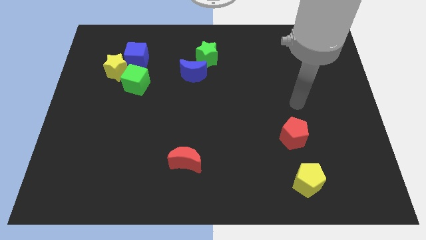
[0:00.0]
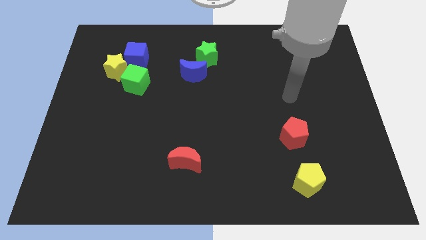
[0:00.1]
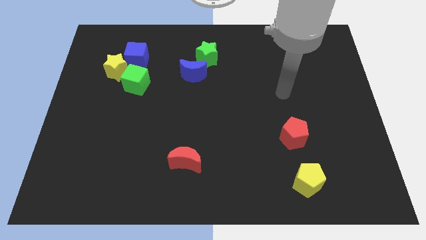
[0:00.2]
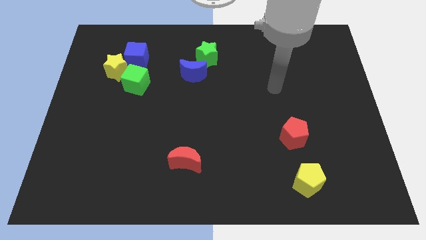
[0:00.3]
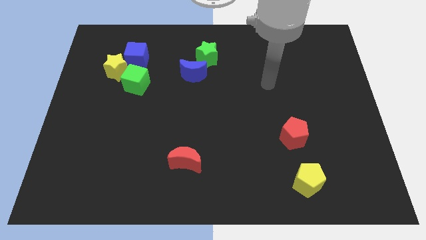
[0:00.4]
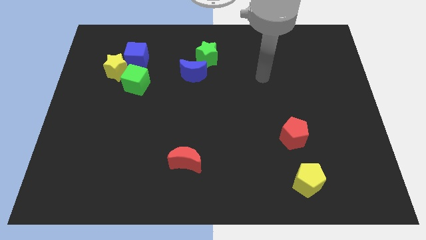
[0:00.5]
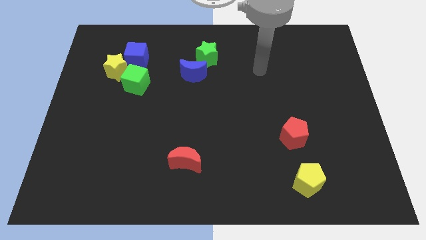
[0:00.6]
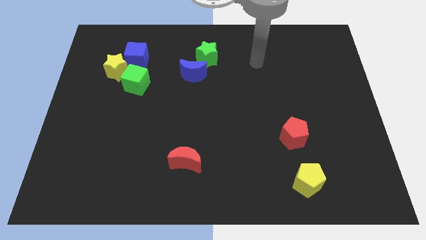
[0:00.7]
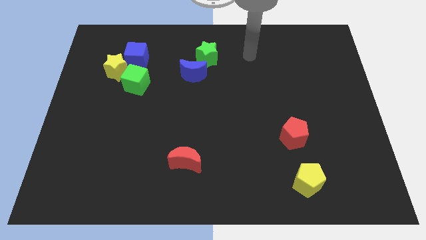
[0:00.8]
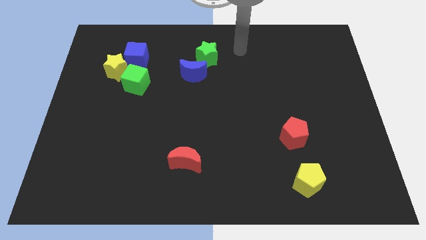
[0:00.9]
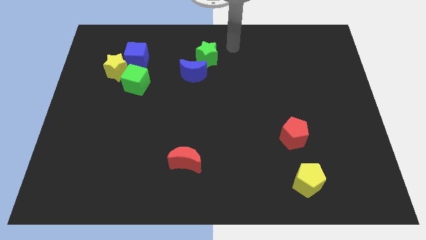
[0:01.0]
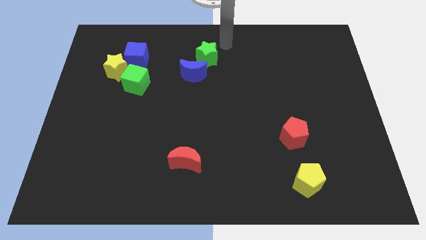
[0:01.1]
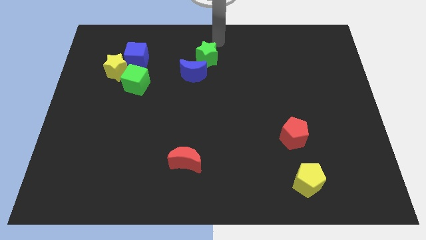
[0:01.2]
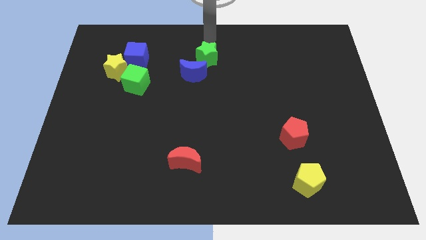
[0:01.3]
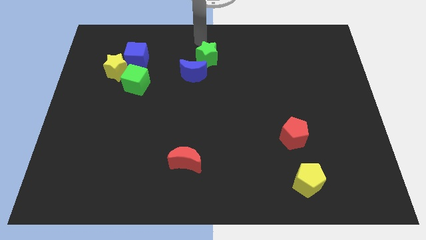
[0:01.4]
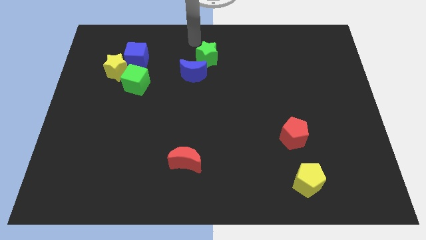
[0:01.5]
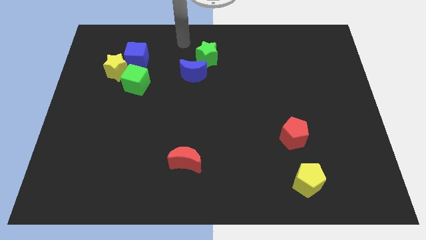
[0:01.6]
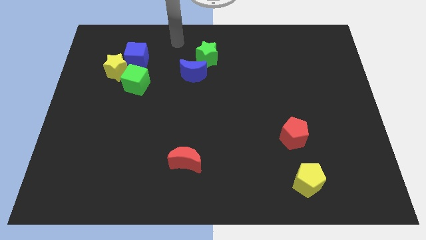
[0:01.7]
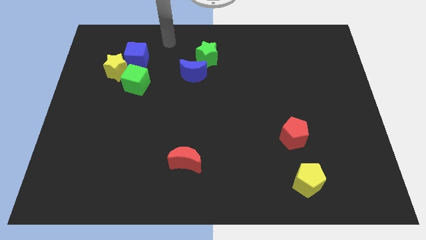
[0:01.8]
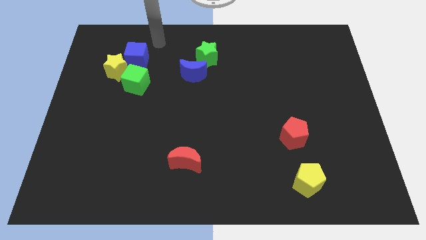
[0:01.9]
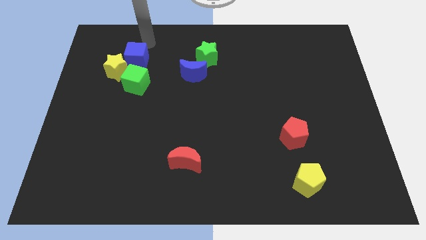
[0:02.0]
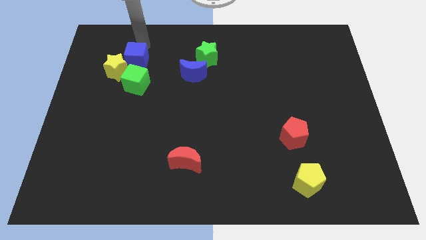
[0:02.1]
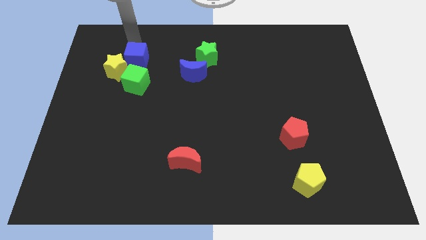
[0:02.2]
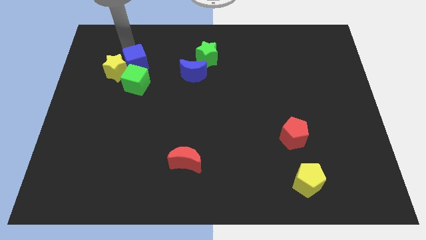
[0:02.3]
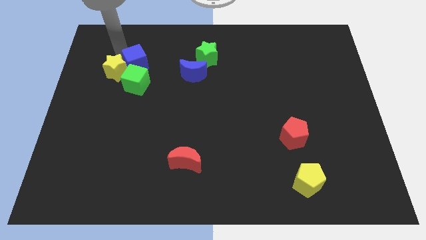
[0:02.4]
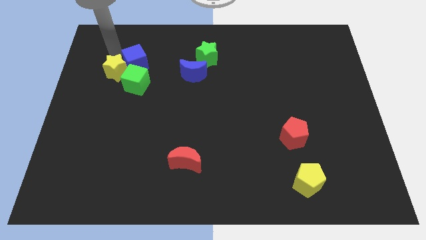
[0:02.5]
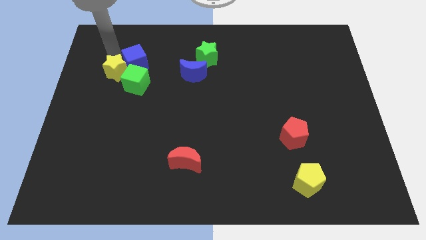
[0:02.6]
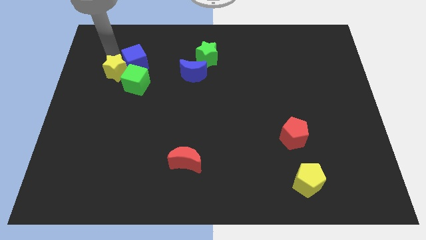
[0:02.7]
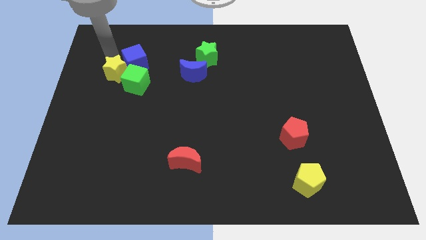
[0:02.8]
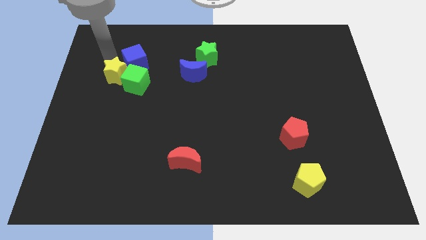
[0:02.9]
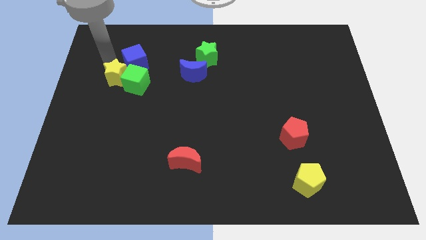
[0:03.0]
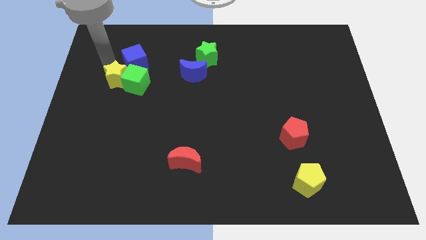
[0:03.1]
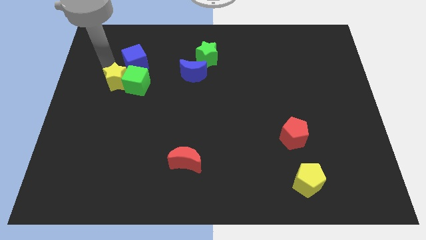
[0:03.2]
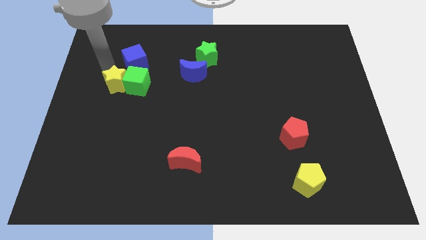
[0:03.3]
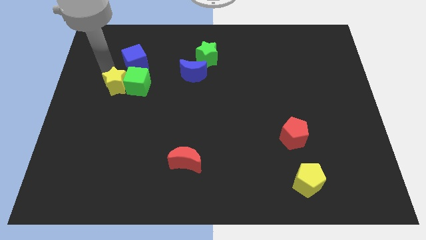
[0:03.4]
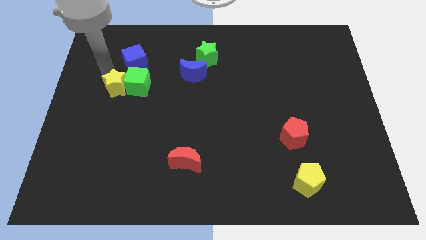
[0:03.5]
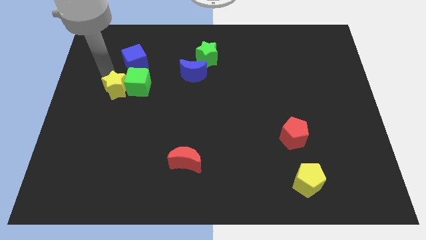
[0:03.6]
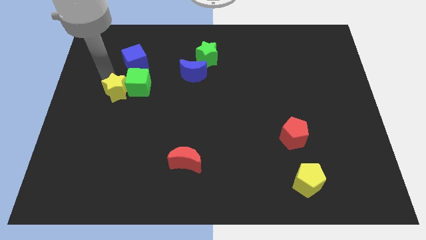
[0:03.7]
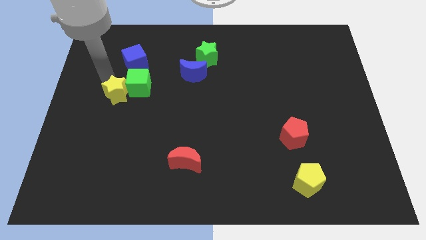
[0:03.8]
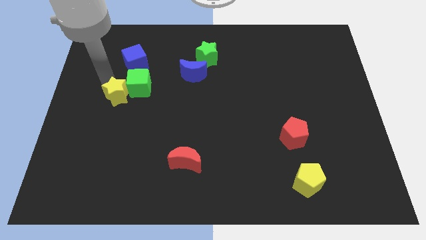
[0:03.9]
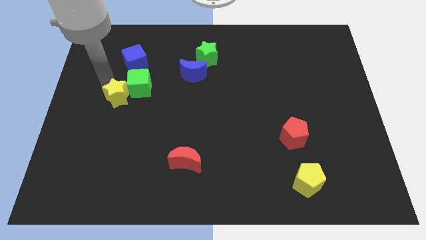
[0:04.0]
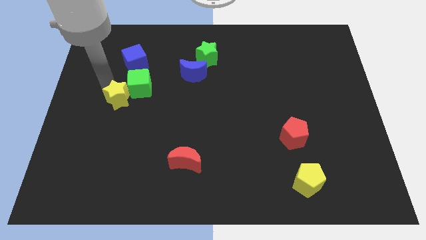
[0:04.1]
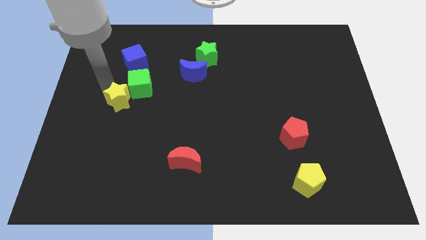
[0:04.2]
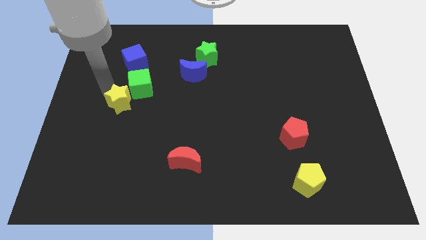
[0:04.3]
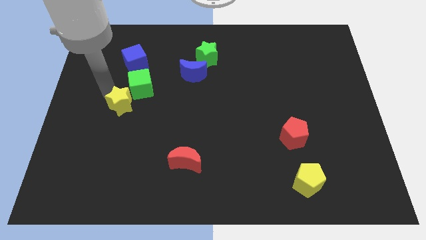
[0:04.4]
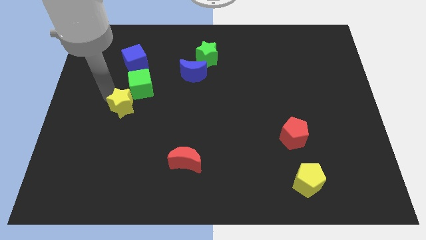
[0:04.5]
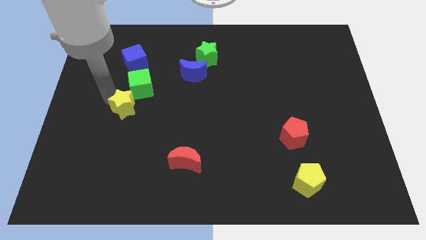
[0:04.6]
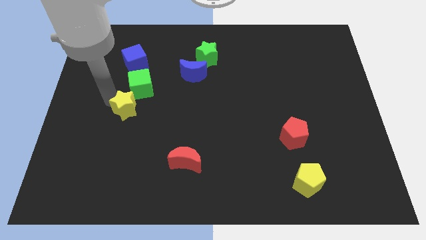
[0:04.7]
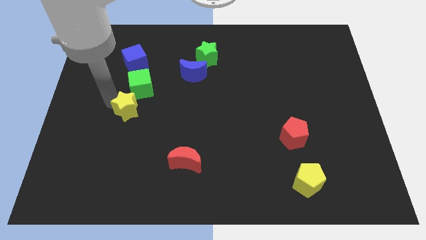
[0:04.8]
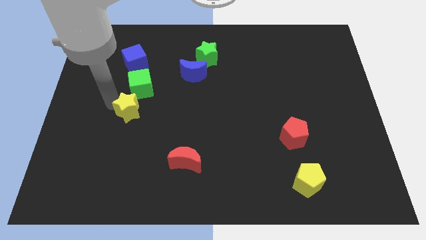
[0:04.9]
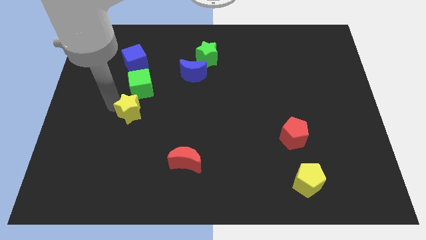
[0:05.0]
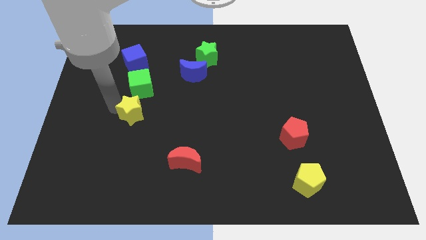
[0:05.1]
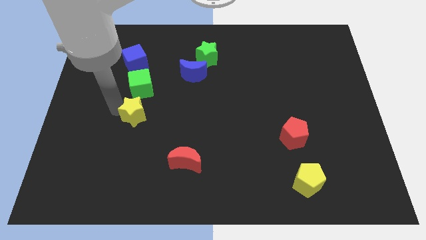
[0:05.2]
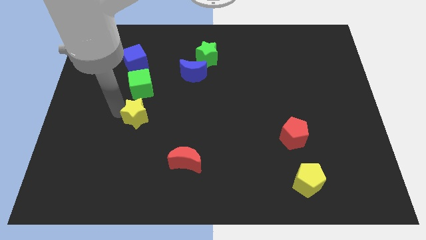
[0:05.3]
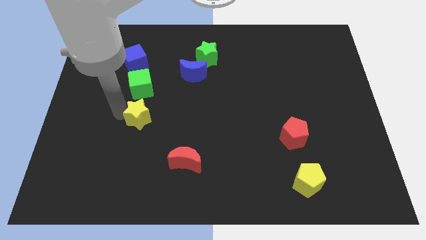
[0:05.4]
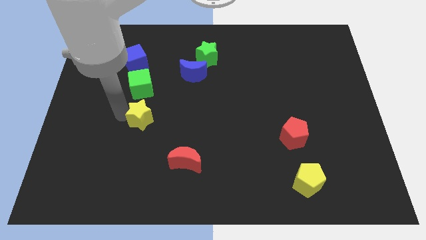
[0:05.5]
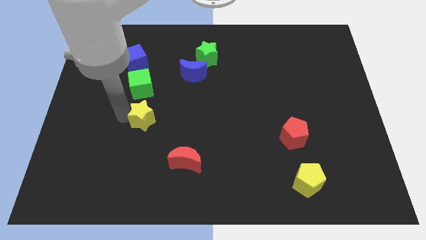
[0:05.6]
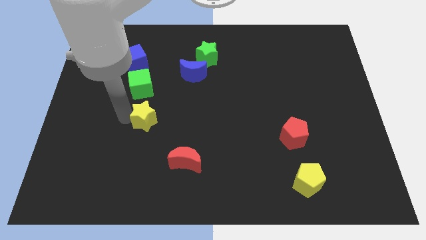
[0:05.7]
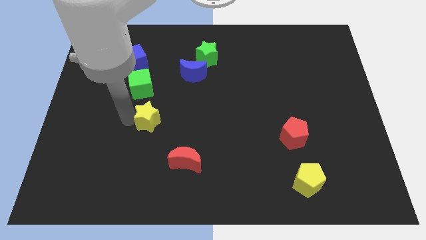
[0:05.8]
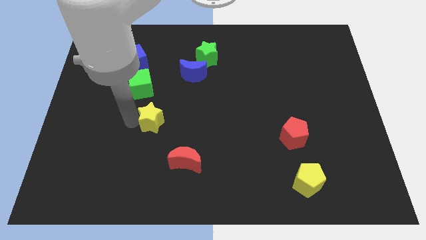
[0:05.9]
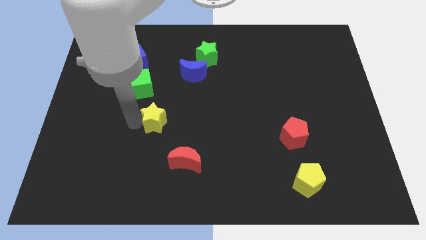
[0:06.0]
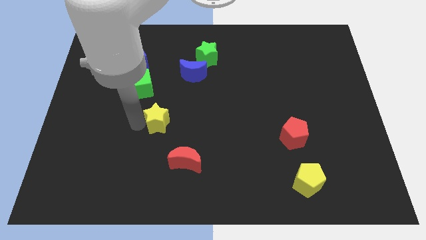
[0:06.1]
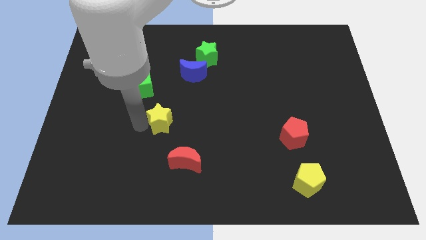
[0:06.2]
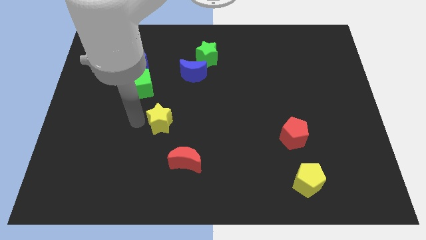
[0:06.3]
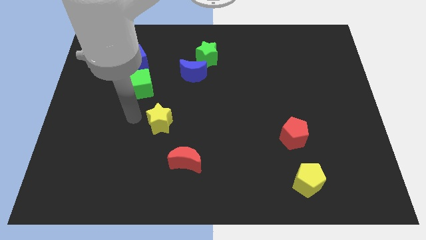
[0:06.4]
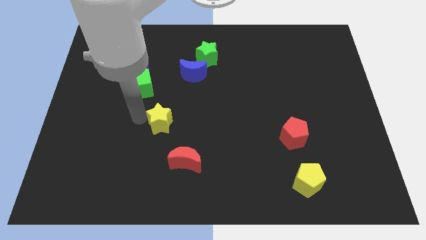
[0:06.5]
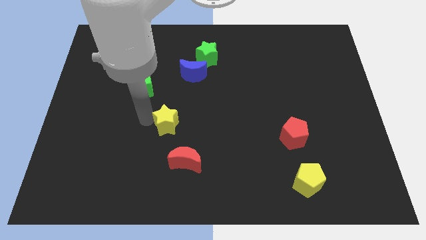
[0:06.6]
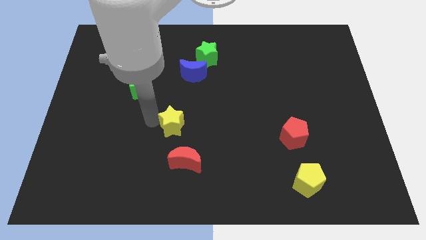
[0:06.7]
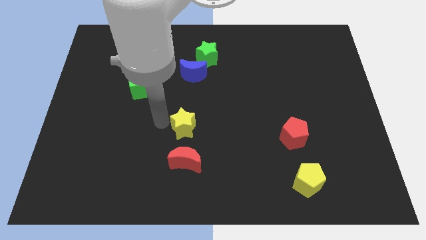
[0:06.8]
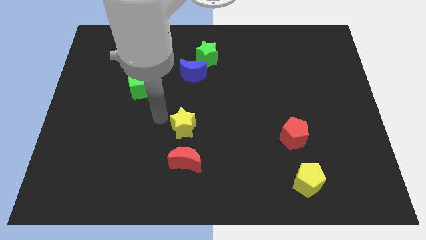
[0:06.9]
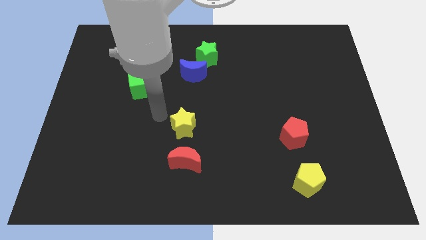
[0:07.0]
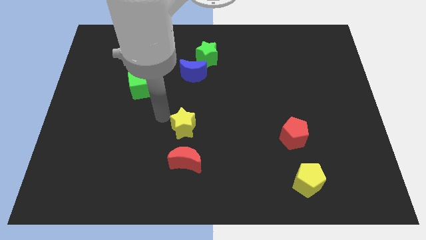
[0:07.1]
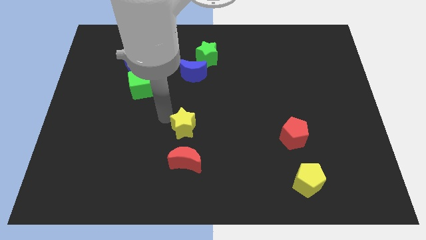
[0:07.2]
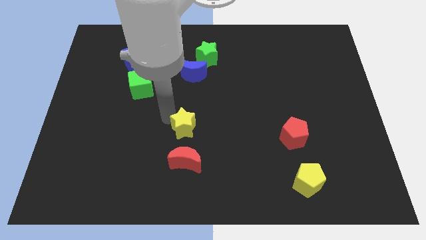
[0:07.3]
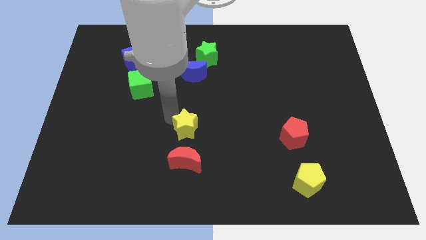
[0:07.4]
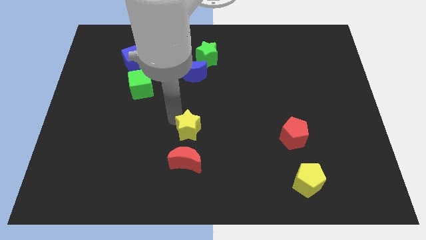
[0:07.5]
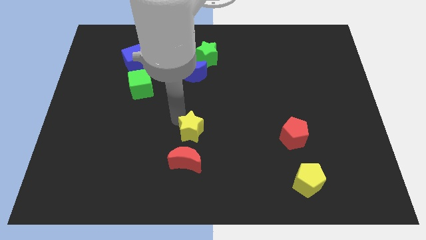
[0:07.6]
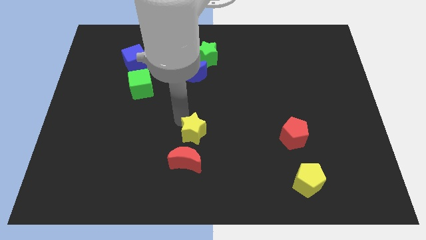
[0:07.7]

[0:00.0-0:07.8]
slide the yellow star diagonally up and to the right of the red moon
